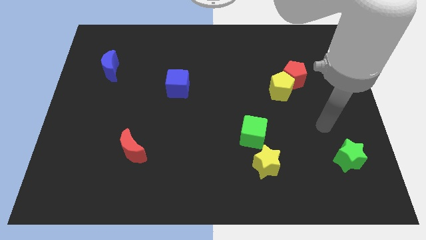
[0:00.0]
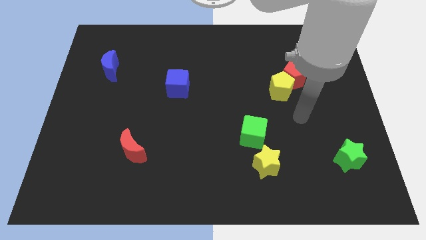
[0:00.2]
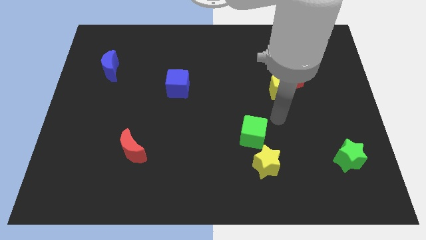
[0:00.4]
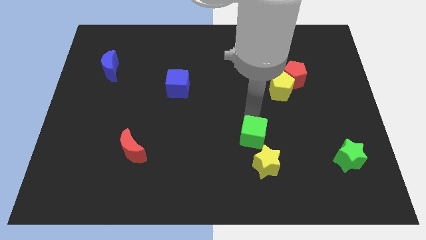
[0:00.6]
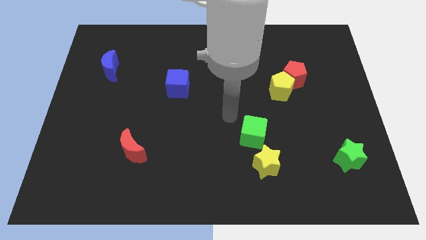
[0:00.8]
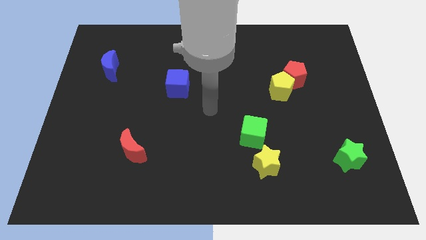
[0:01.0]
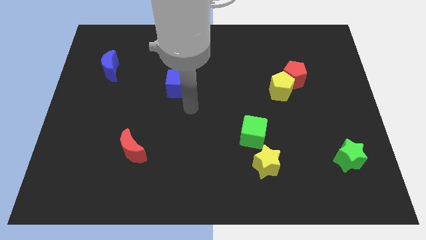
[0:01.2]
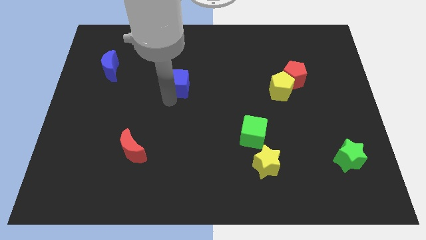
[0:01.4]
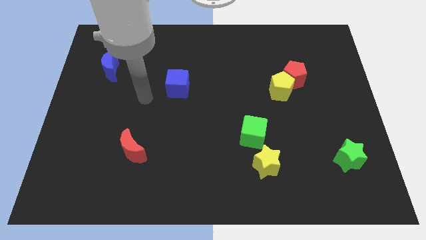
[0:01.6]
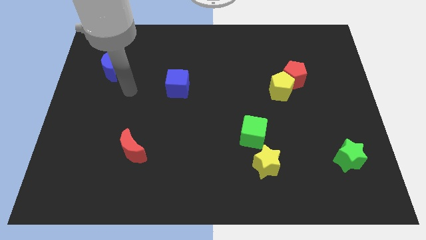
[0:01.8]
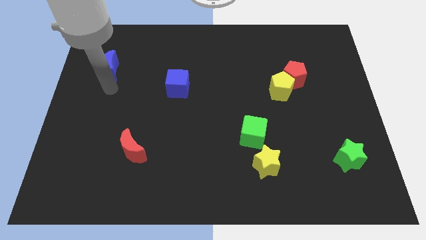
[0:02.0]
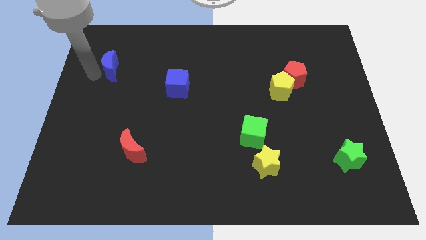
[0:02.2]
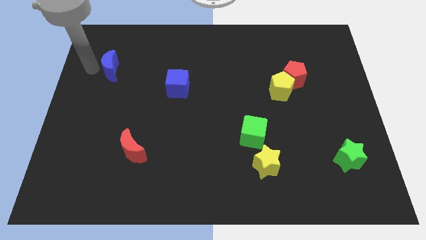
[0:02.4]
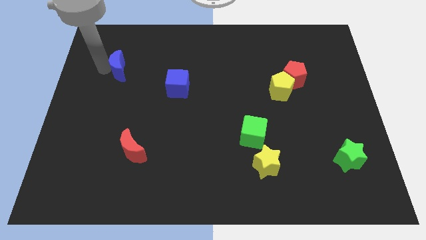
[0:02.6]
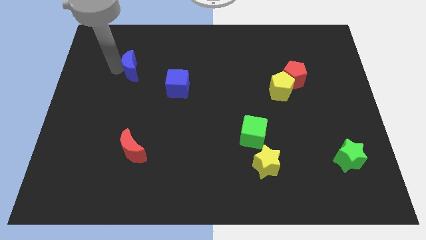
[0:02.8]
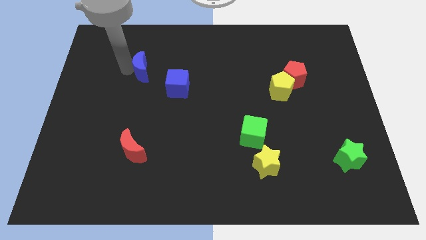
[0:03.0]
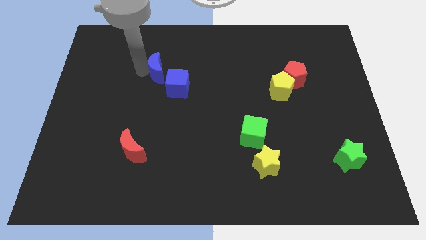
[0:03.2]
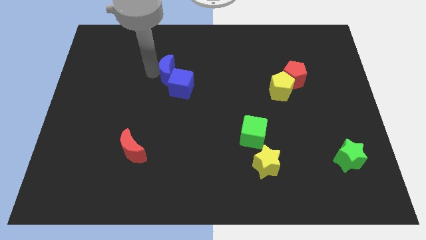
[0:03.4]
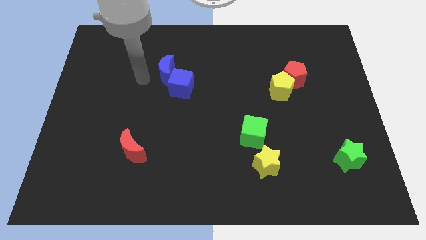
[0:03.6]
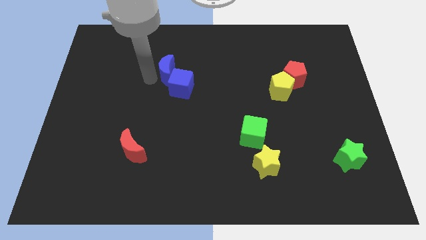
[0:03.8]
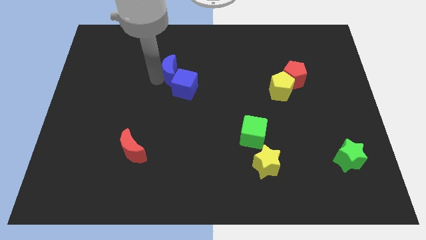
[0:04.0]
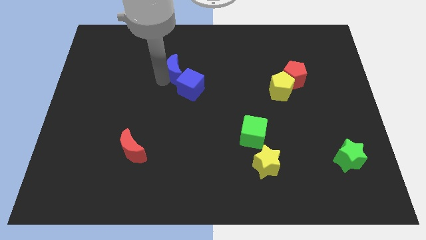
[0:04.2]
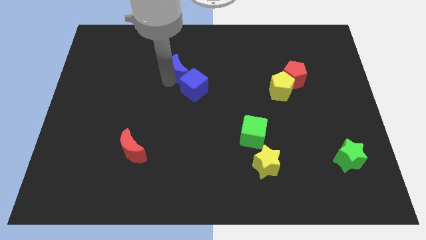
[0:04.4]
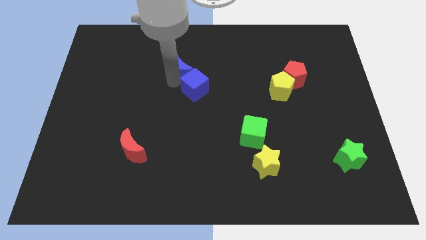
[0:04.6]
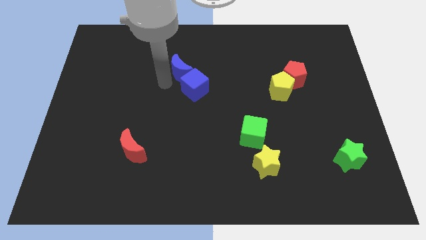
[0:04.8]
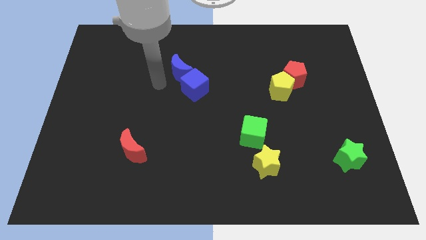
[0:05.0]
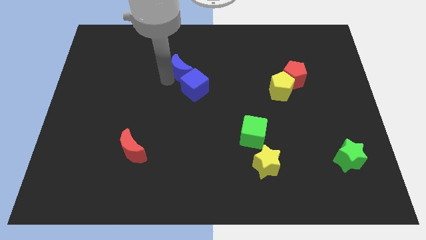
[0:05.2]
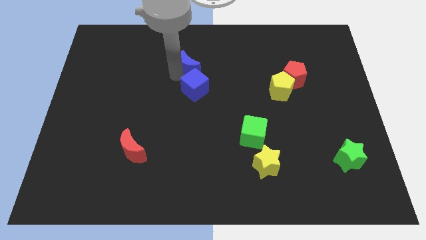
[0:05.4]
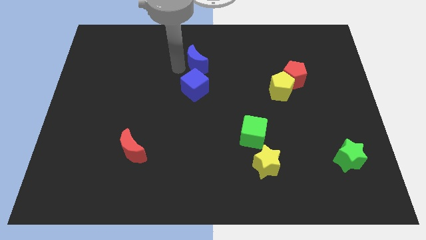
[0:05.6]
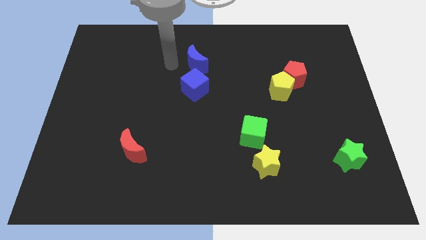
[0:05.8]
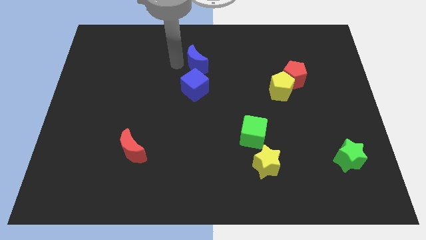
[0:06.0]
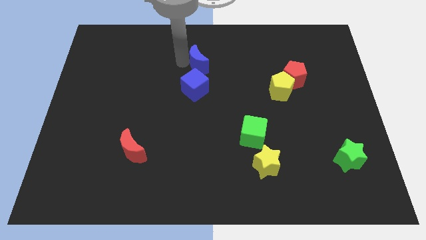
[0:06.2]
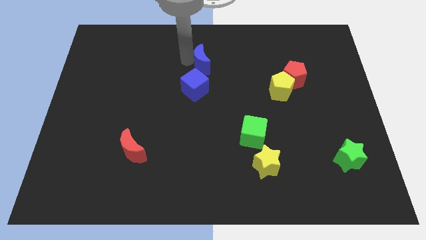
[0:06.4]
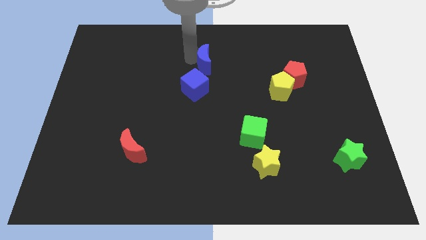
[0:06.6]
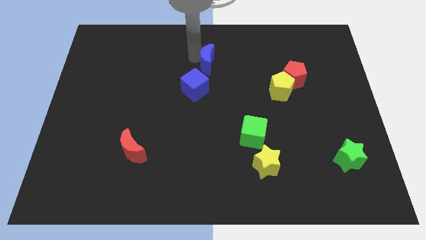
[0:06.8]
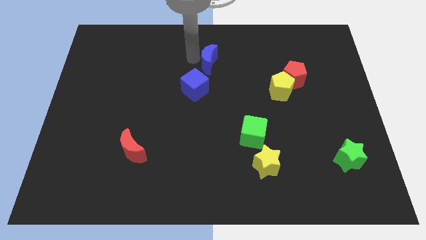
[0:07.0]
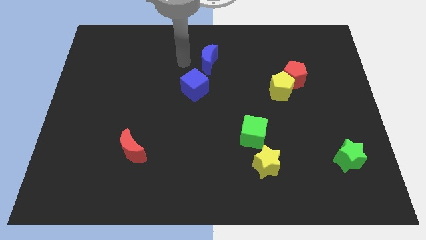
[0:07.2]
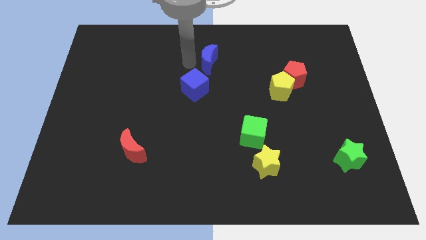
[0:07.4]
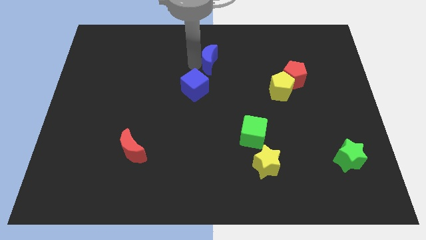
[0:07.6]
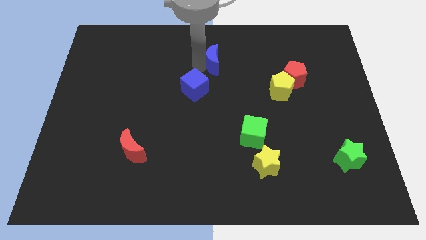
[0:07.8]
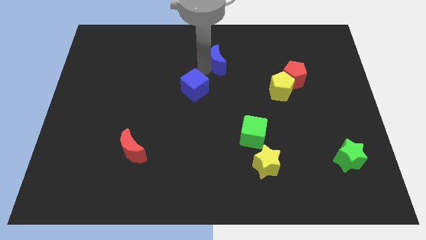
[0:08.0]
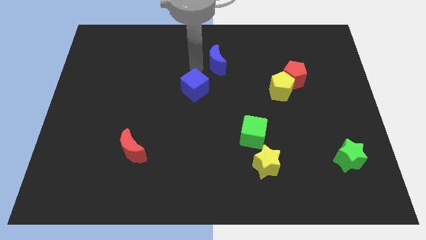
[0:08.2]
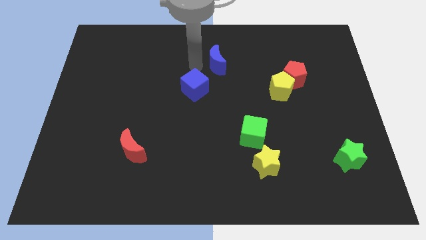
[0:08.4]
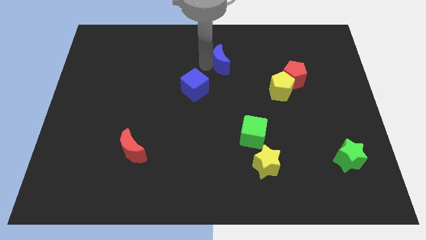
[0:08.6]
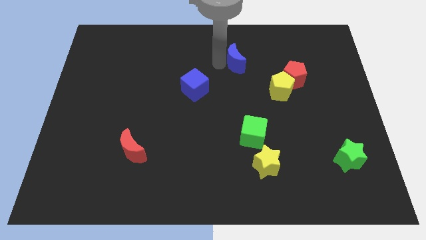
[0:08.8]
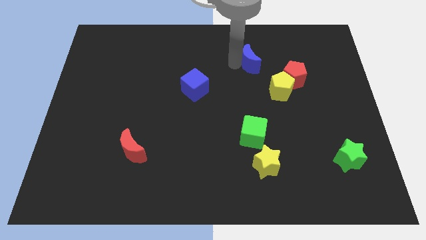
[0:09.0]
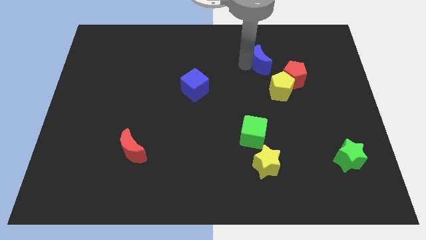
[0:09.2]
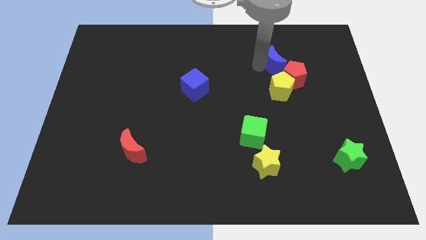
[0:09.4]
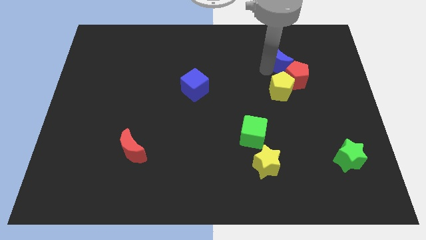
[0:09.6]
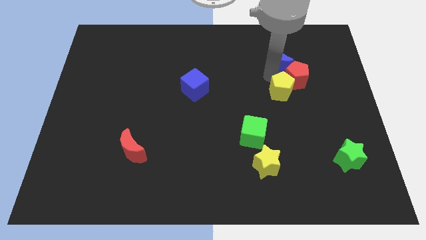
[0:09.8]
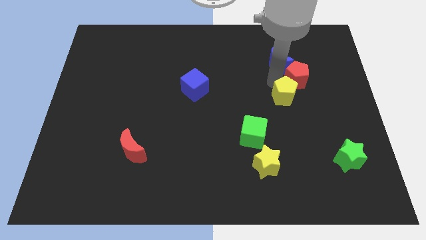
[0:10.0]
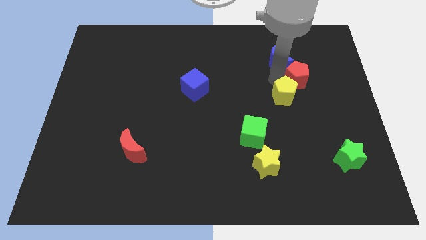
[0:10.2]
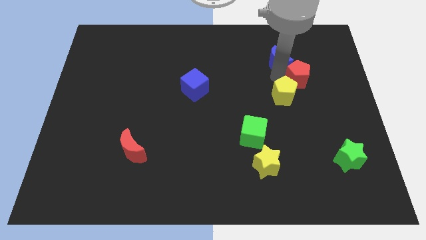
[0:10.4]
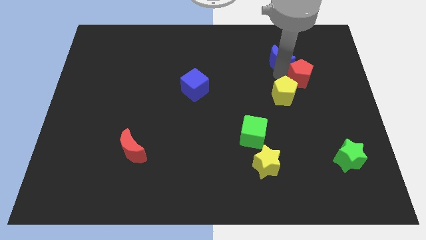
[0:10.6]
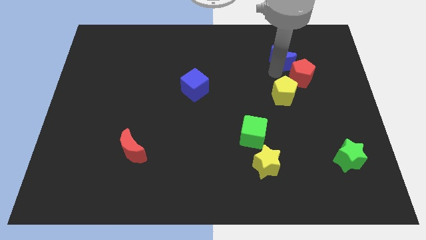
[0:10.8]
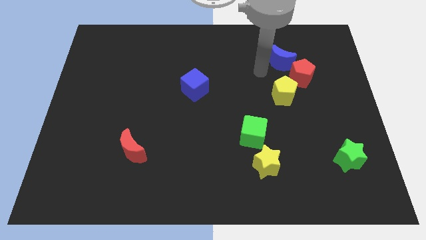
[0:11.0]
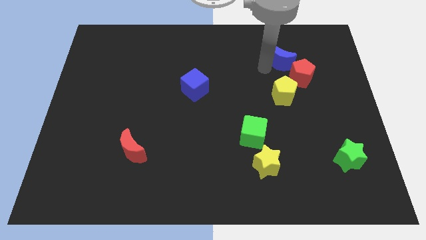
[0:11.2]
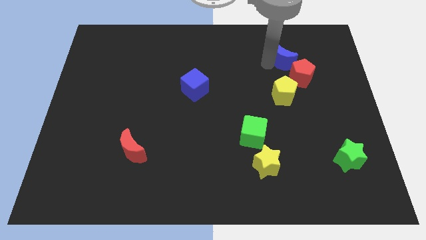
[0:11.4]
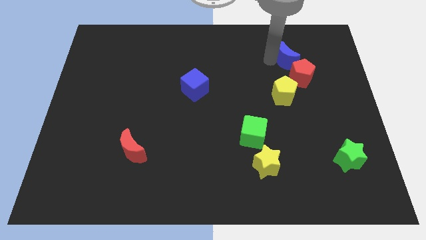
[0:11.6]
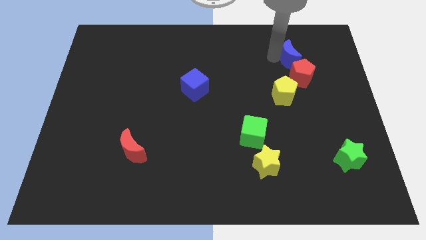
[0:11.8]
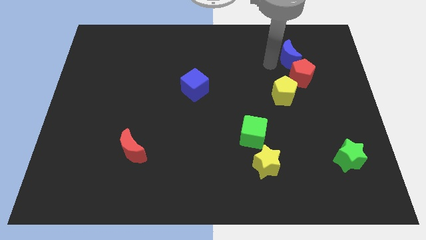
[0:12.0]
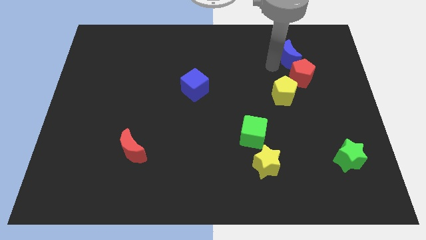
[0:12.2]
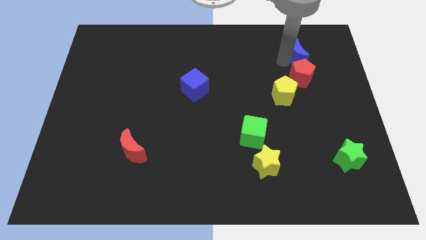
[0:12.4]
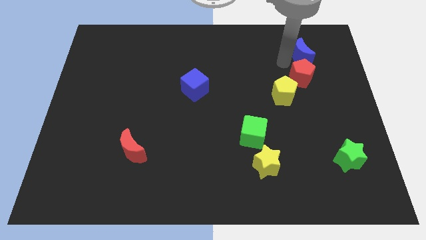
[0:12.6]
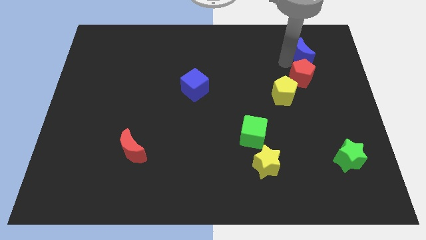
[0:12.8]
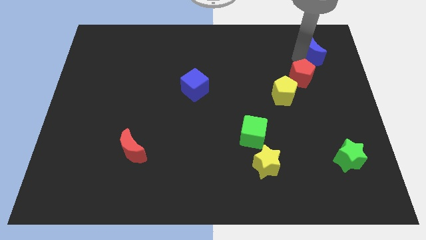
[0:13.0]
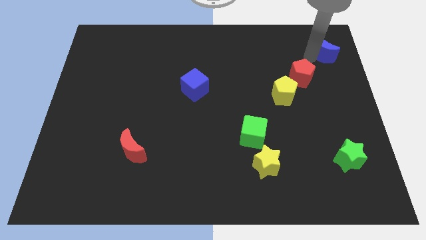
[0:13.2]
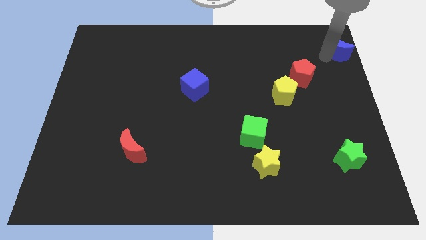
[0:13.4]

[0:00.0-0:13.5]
put the blue moon to the upper right corner
